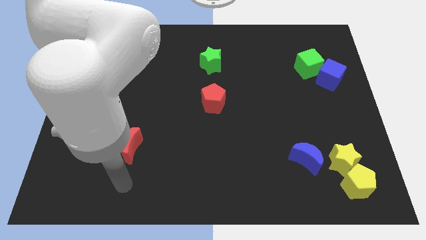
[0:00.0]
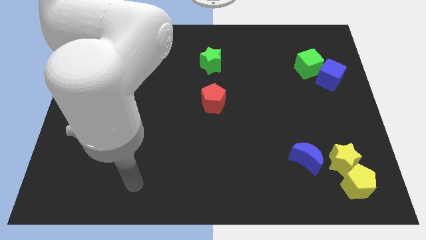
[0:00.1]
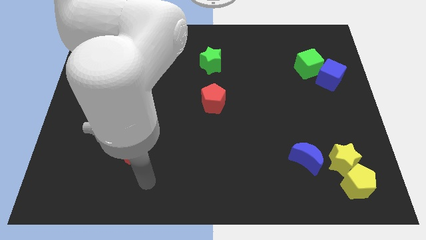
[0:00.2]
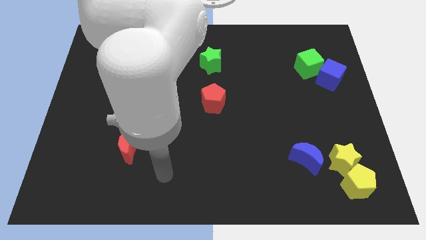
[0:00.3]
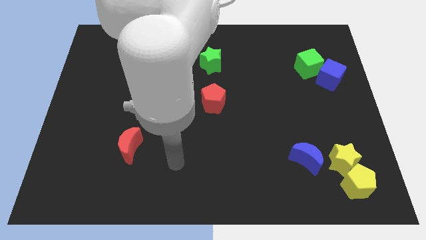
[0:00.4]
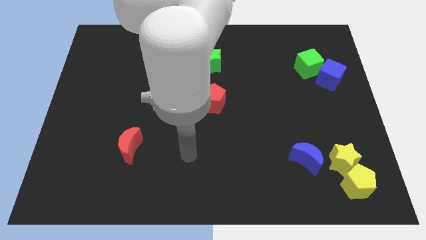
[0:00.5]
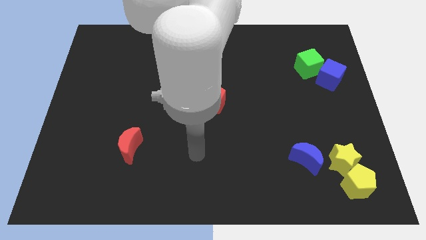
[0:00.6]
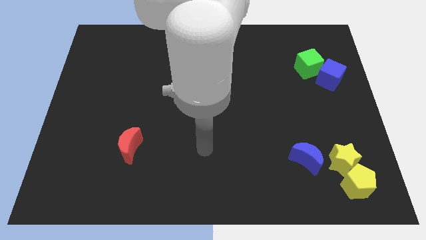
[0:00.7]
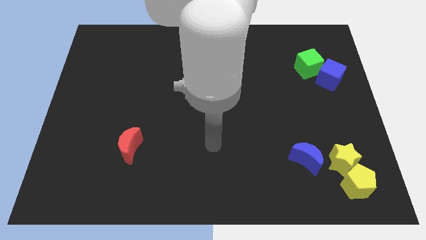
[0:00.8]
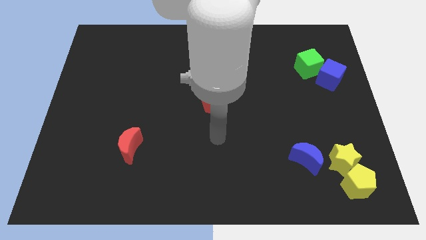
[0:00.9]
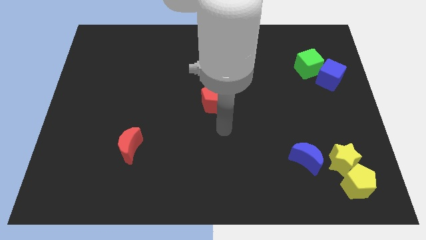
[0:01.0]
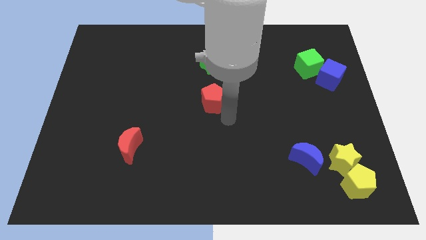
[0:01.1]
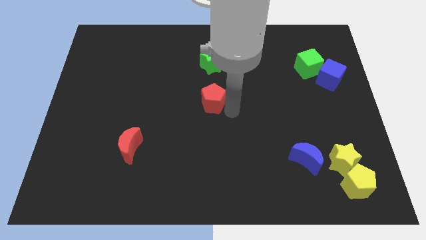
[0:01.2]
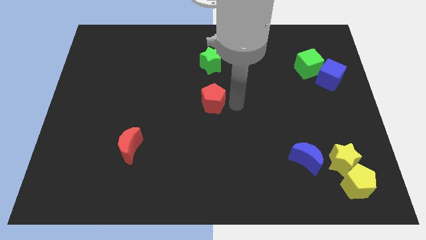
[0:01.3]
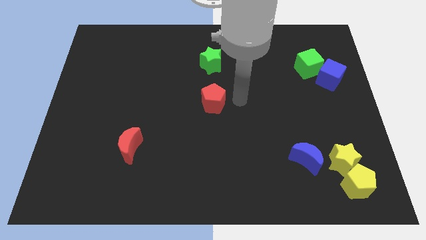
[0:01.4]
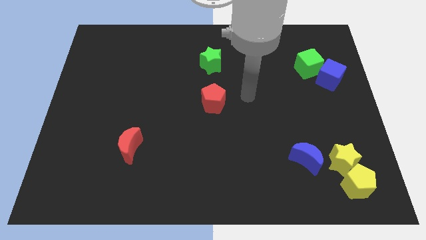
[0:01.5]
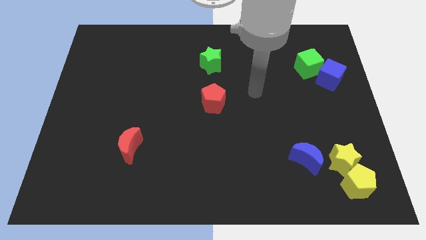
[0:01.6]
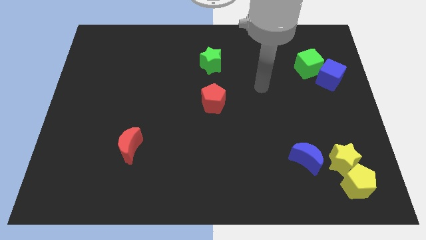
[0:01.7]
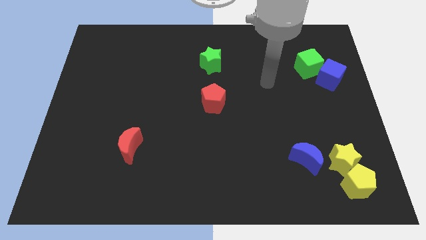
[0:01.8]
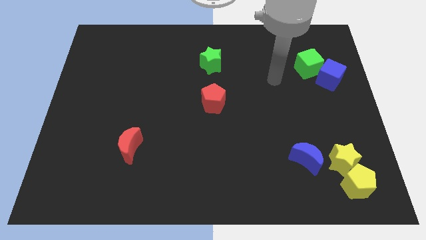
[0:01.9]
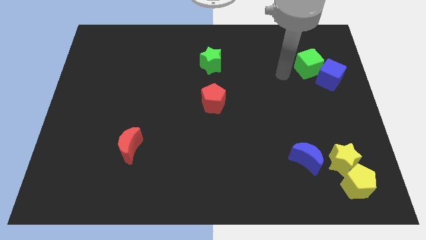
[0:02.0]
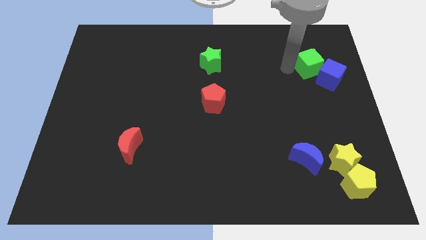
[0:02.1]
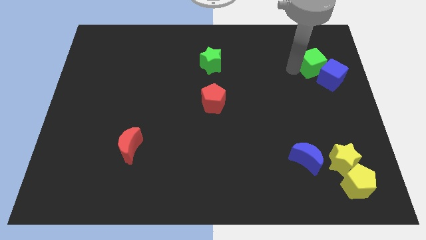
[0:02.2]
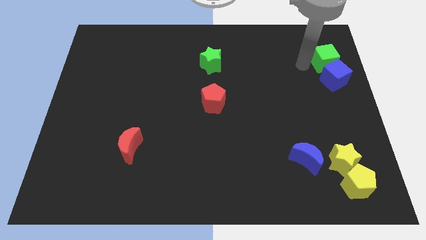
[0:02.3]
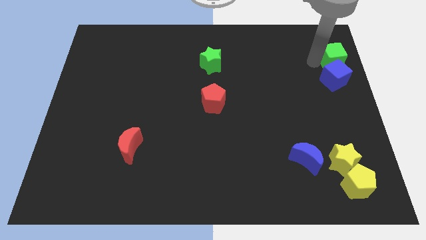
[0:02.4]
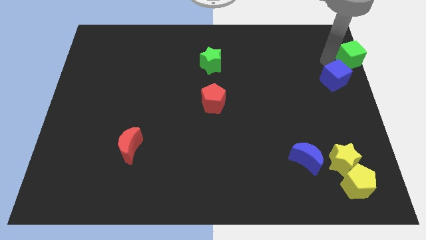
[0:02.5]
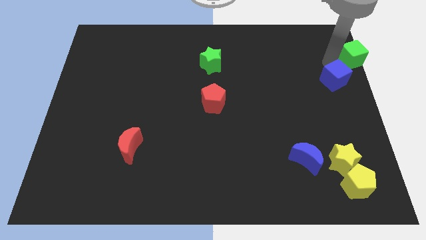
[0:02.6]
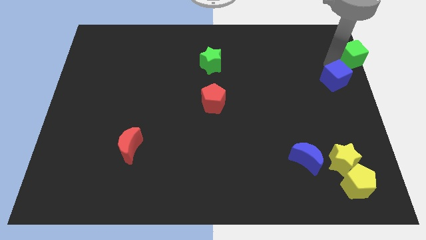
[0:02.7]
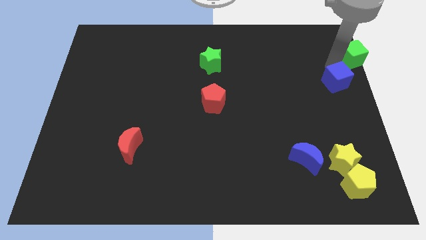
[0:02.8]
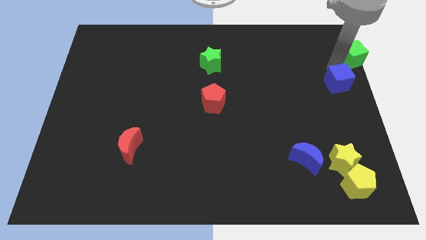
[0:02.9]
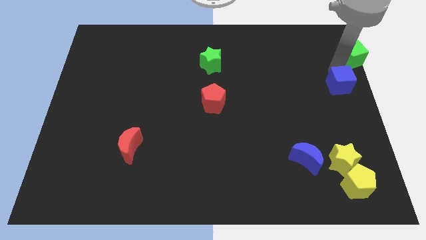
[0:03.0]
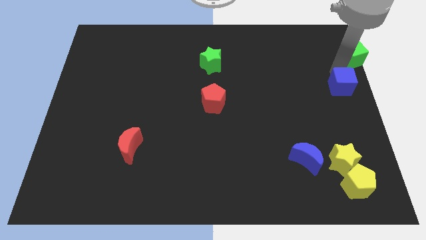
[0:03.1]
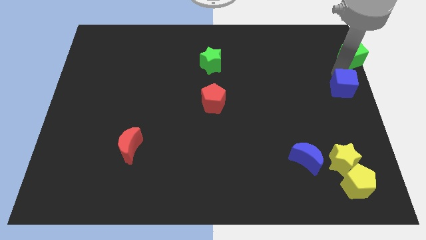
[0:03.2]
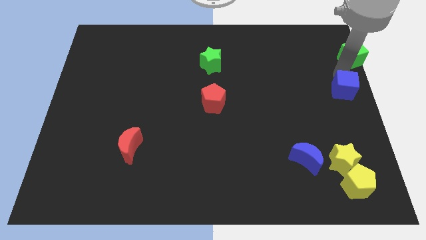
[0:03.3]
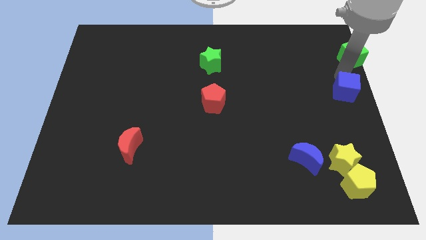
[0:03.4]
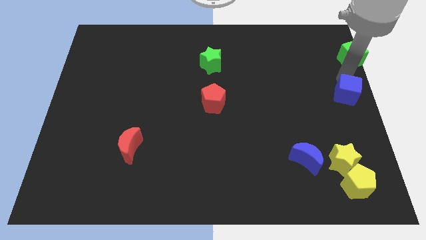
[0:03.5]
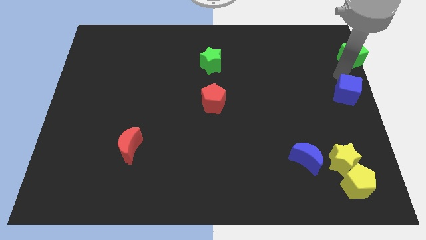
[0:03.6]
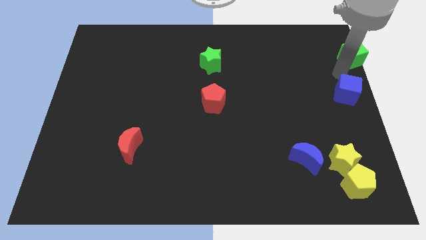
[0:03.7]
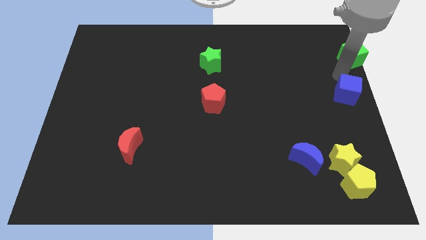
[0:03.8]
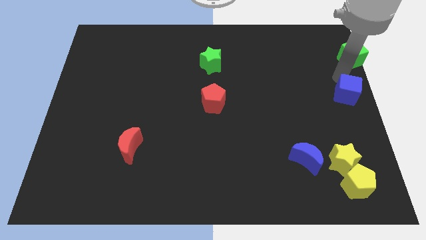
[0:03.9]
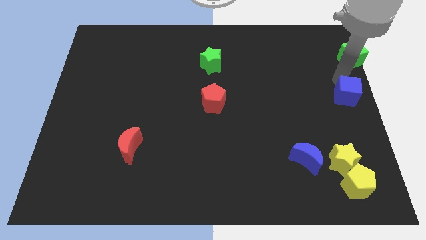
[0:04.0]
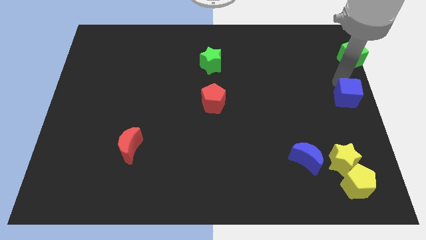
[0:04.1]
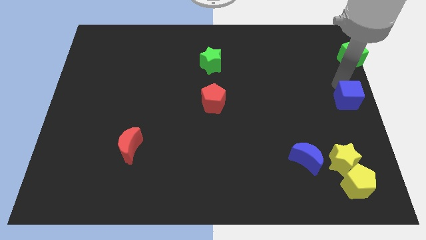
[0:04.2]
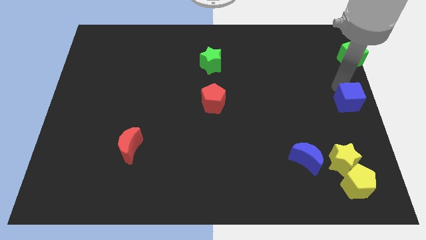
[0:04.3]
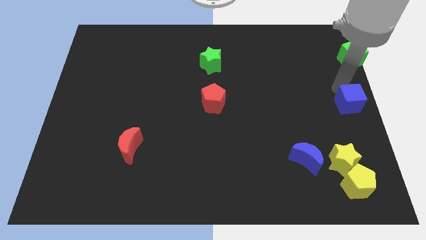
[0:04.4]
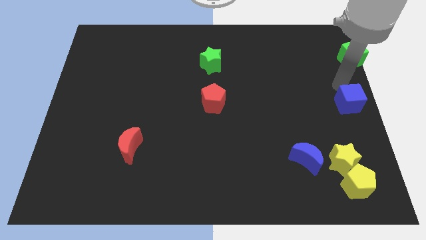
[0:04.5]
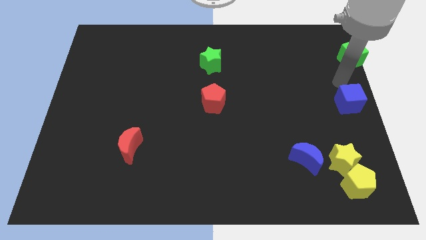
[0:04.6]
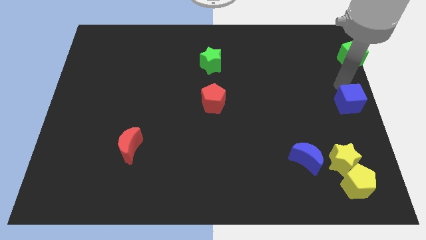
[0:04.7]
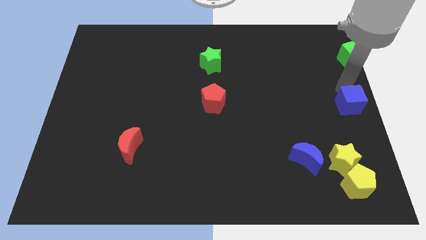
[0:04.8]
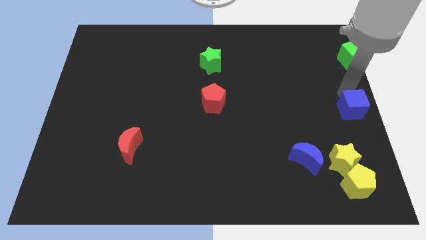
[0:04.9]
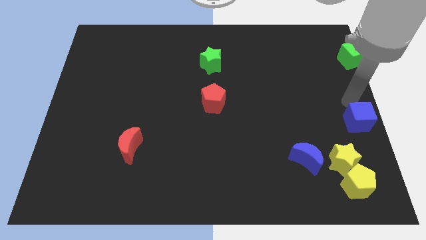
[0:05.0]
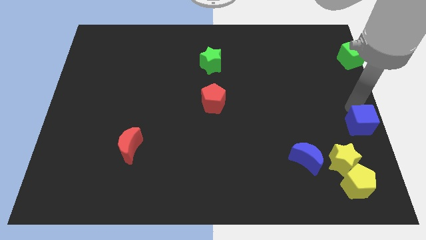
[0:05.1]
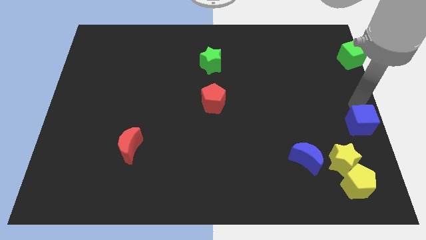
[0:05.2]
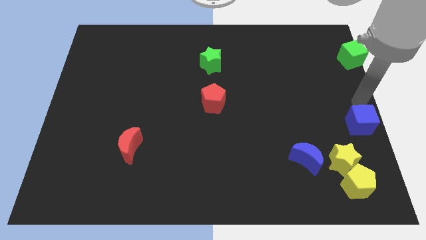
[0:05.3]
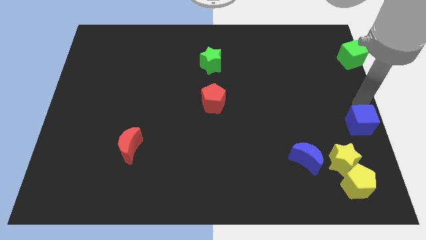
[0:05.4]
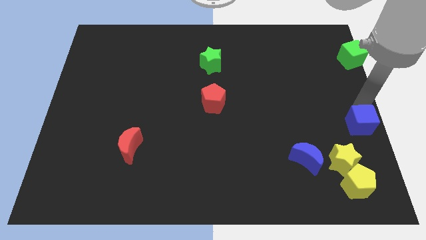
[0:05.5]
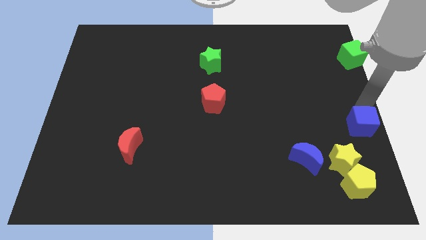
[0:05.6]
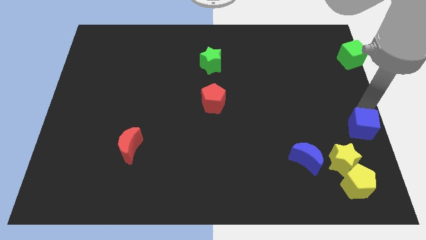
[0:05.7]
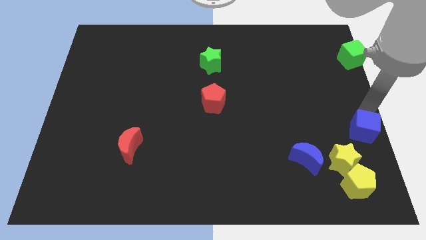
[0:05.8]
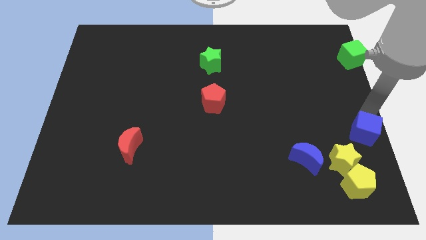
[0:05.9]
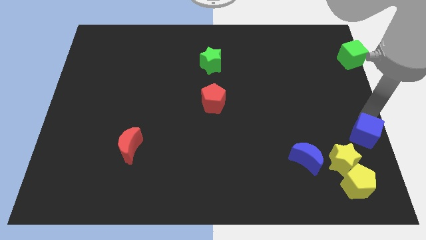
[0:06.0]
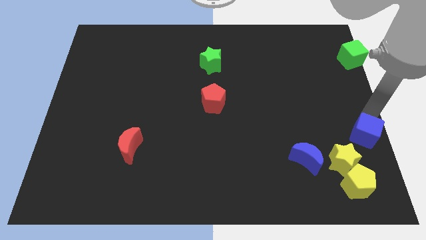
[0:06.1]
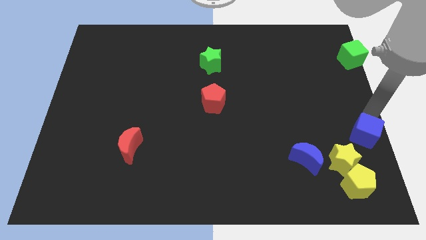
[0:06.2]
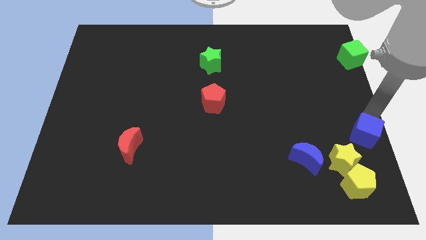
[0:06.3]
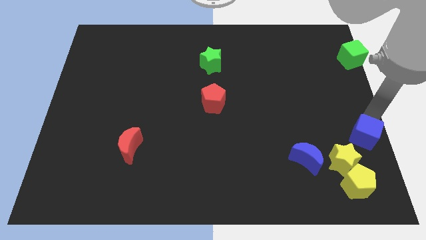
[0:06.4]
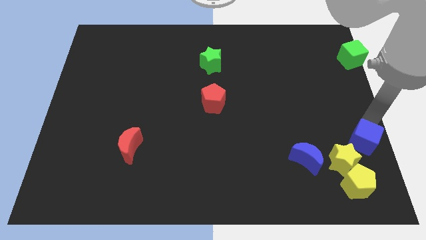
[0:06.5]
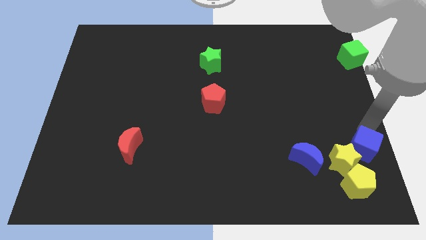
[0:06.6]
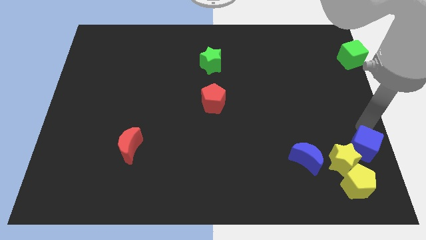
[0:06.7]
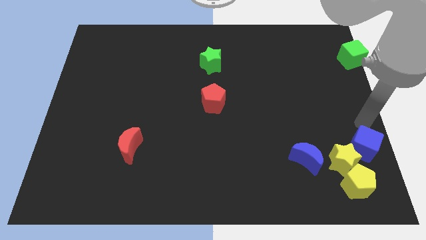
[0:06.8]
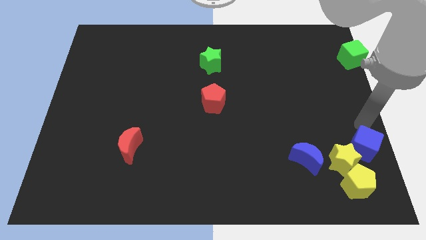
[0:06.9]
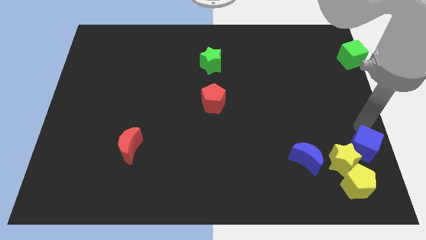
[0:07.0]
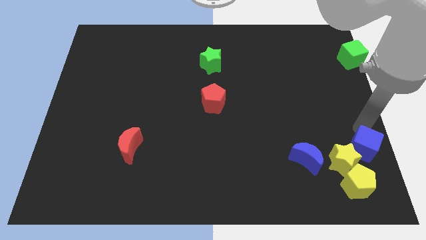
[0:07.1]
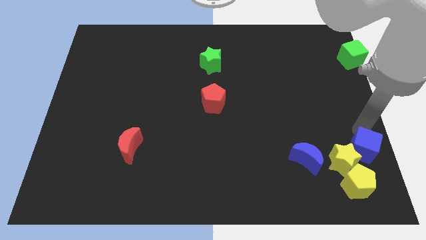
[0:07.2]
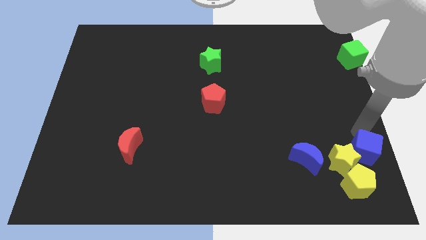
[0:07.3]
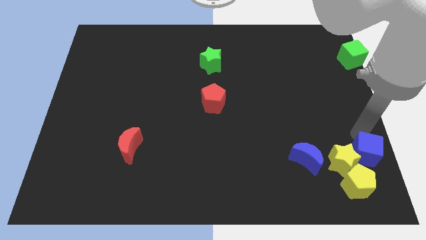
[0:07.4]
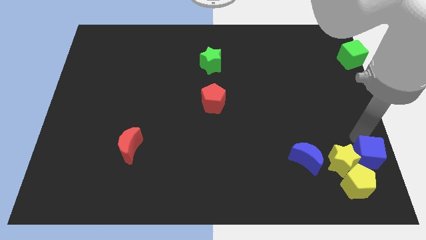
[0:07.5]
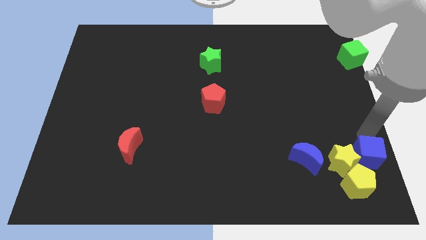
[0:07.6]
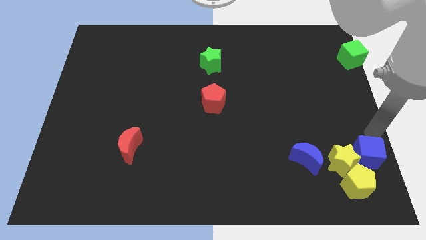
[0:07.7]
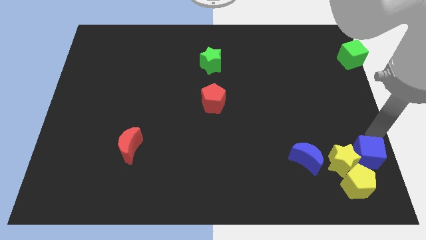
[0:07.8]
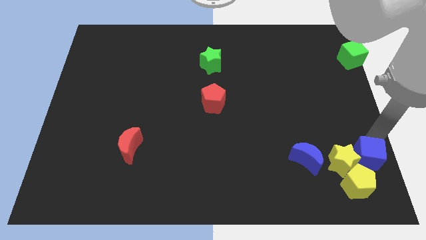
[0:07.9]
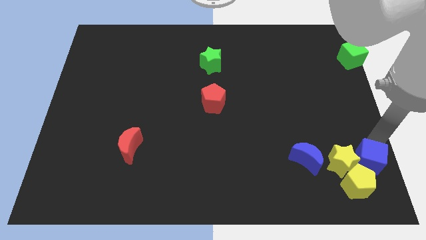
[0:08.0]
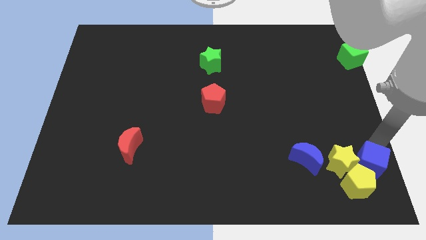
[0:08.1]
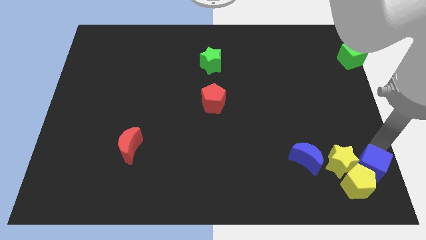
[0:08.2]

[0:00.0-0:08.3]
move the blue cube next to the yellow pentagon
